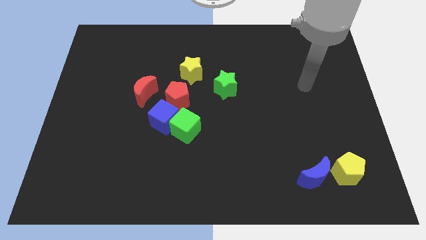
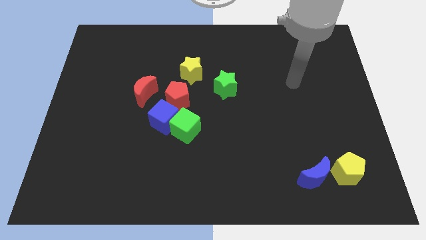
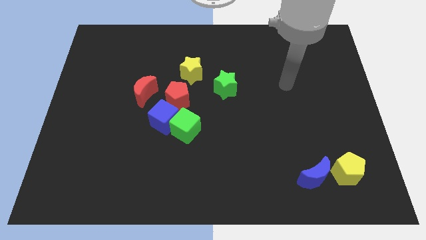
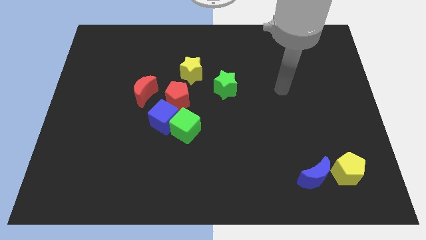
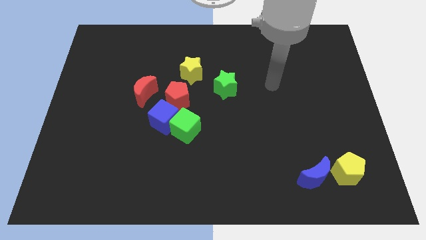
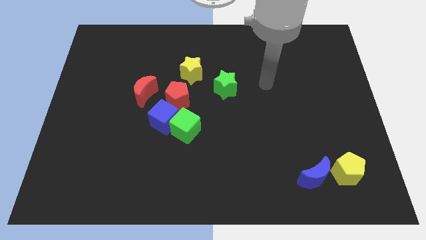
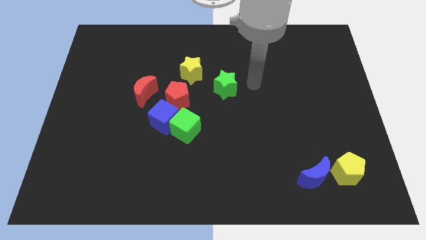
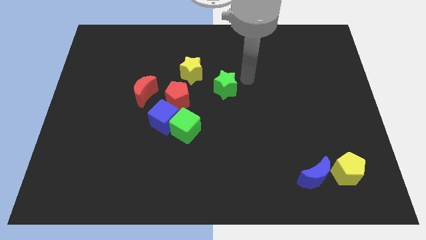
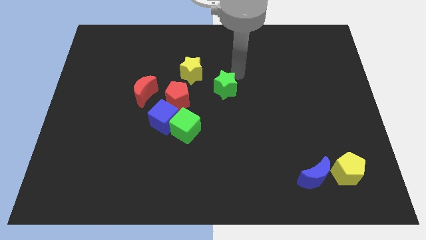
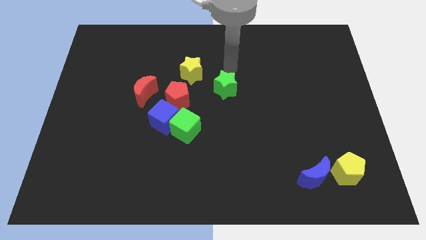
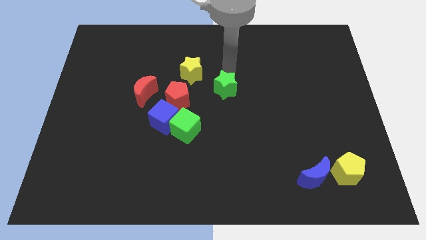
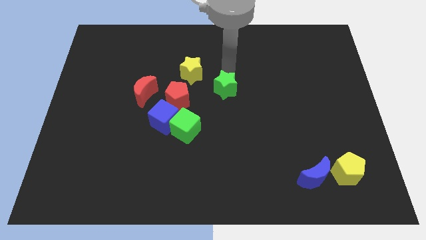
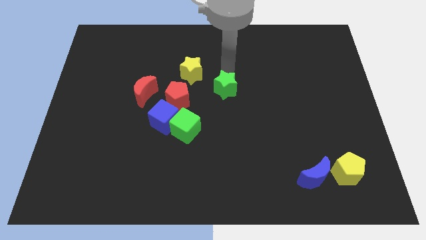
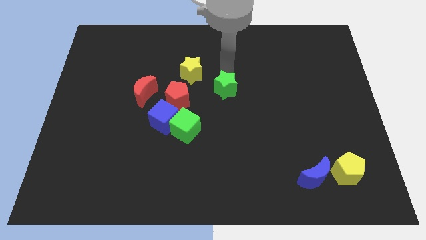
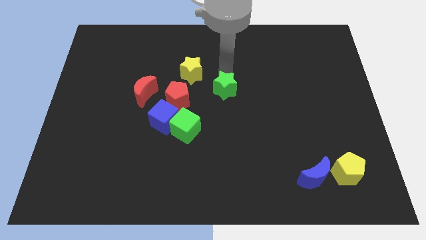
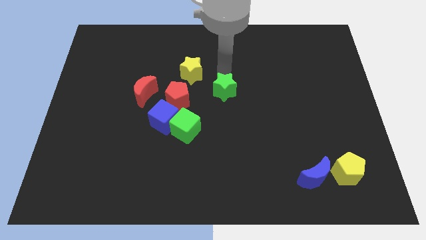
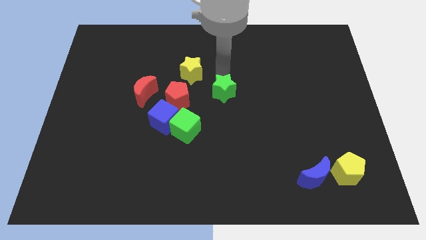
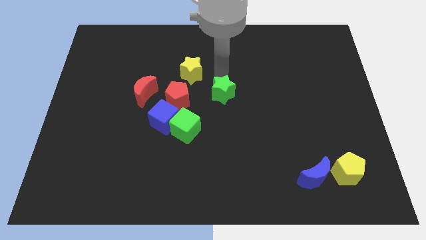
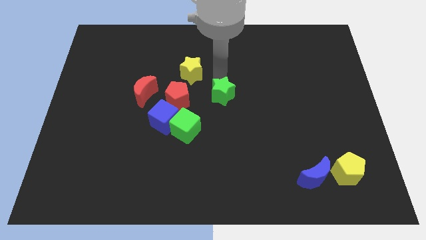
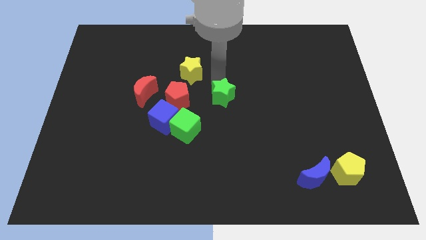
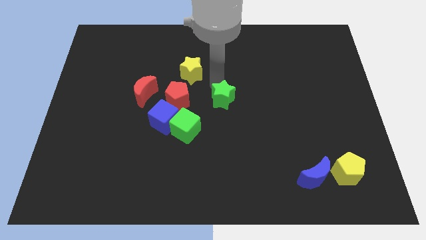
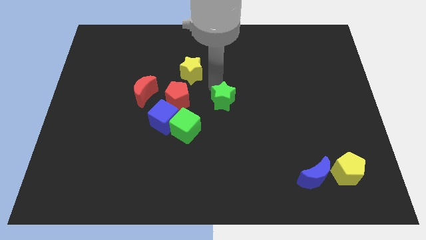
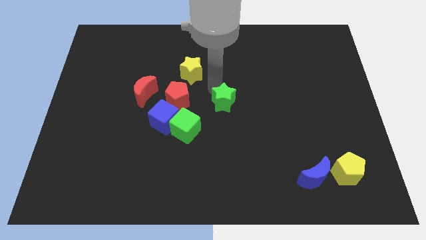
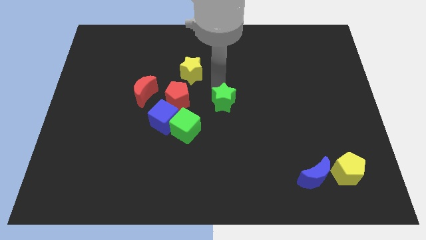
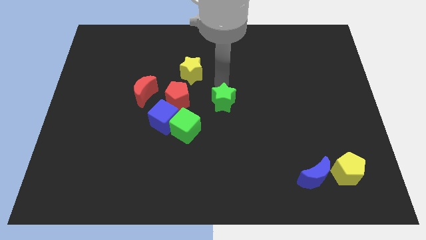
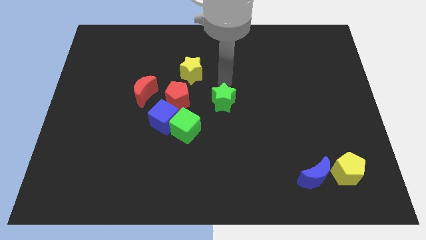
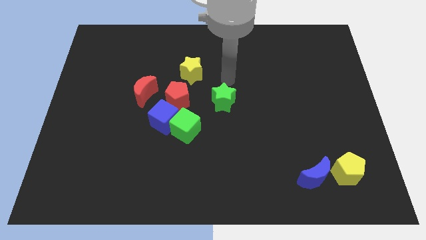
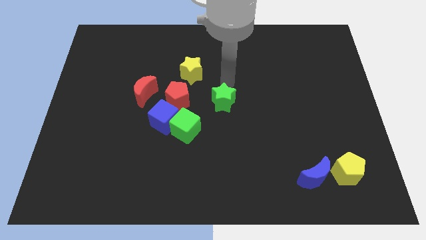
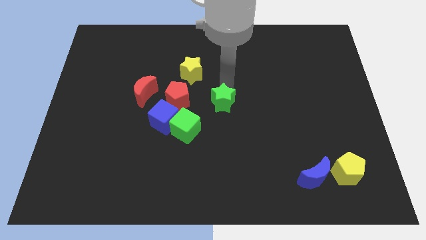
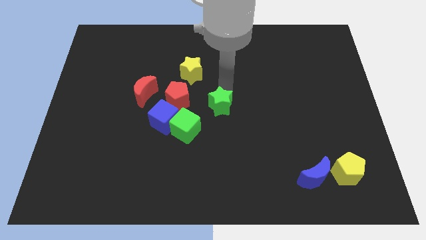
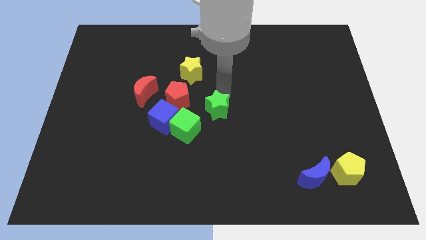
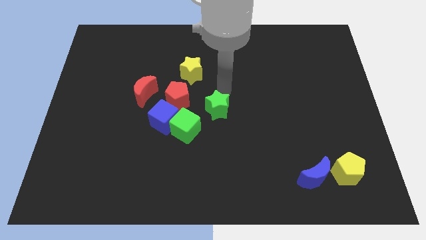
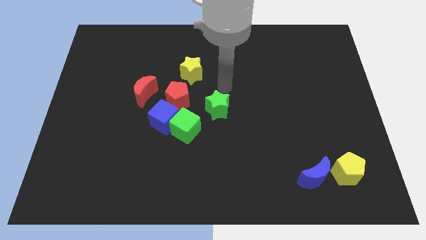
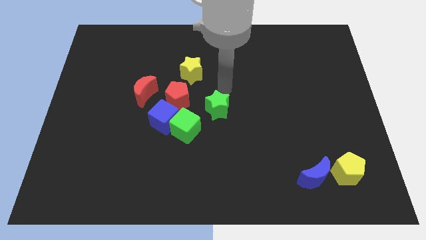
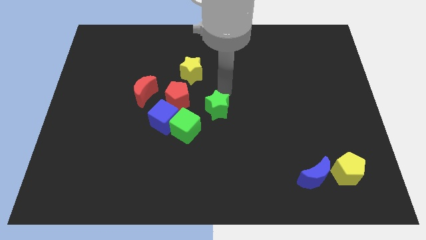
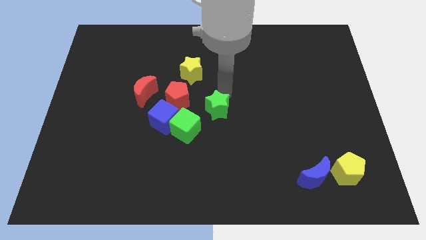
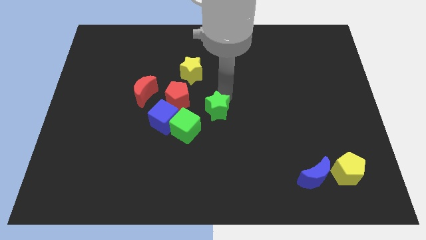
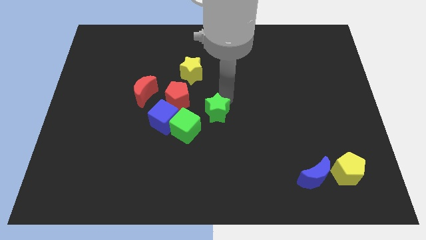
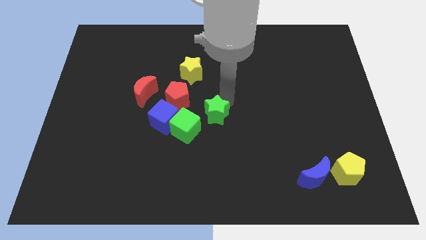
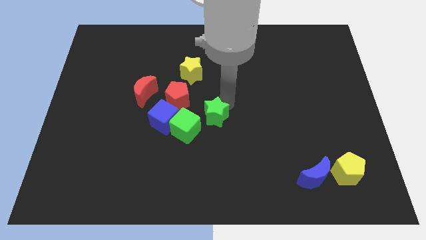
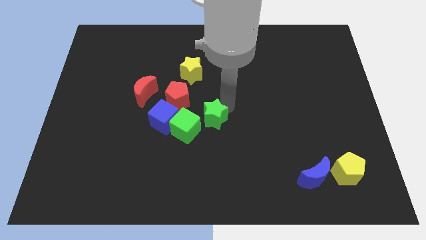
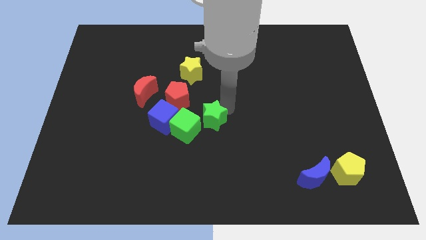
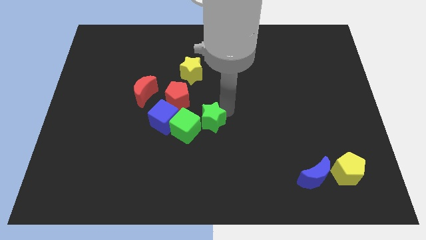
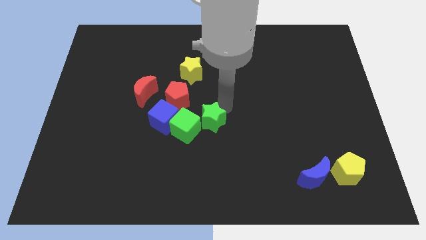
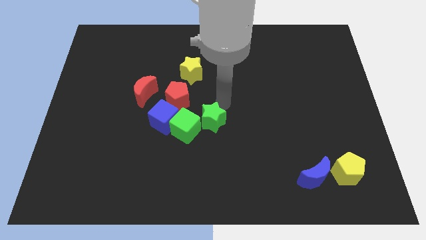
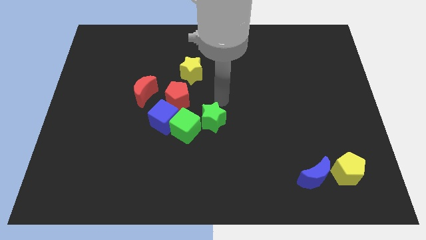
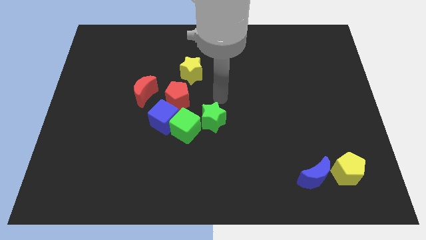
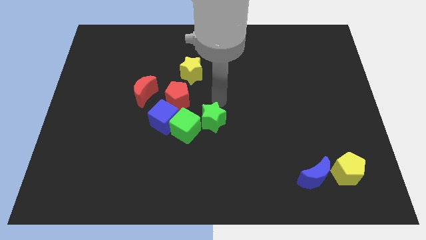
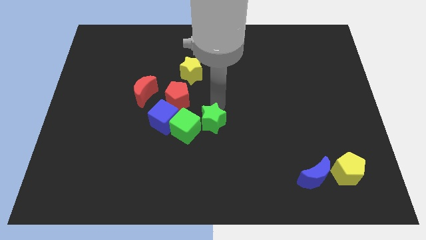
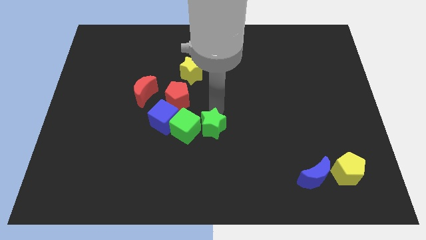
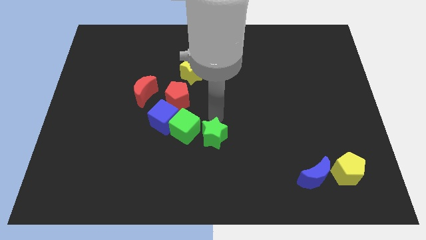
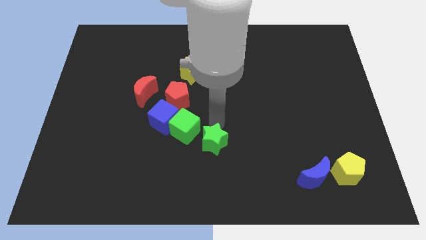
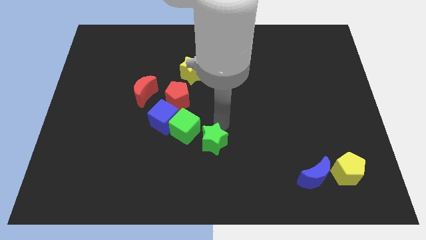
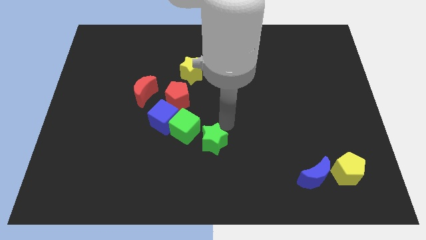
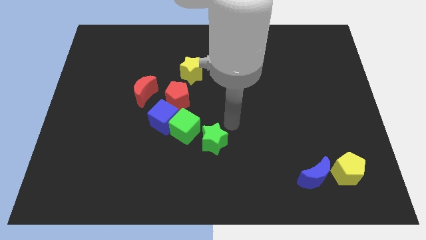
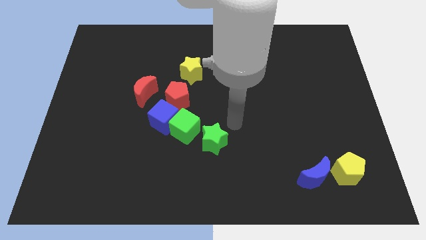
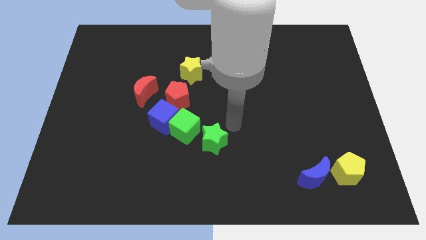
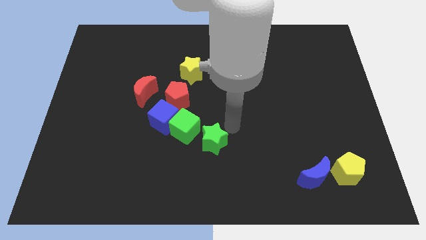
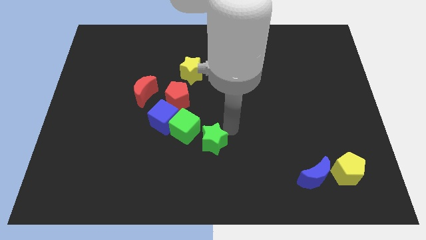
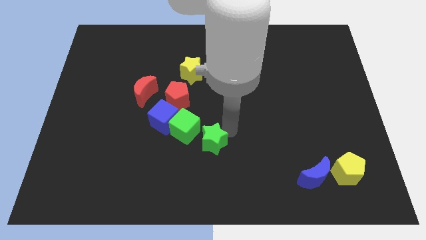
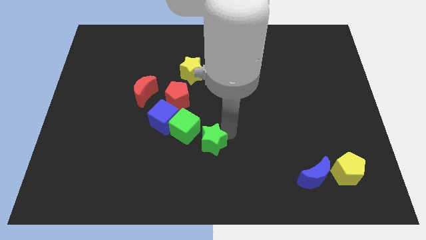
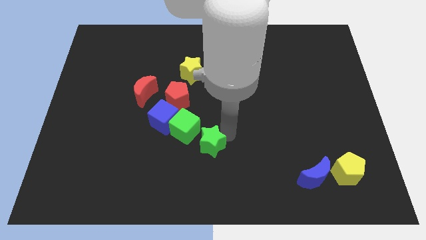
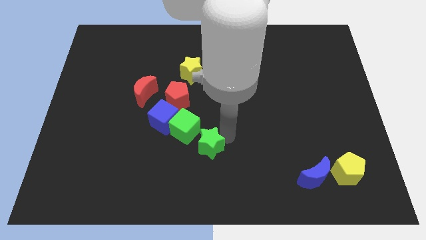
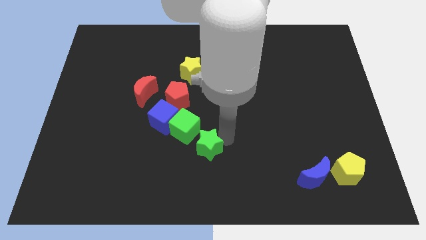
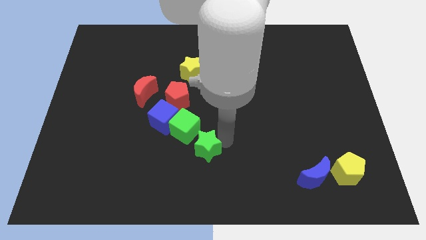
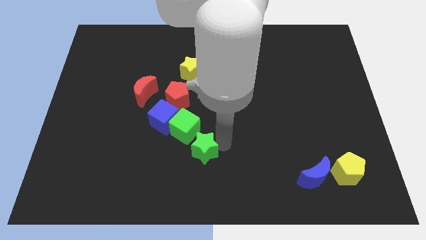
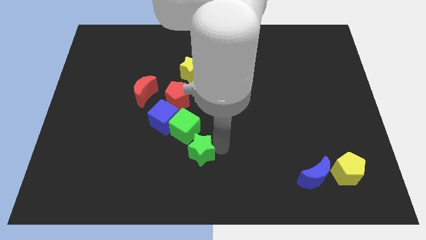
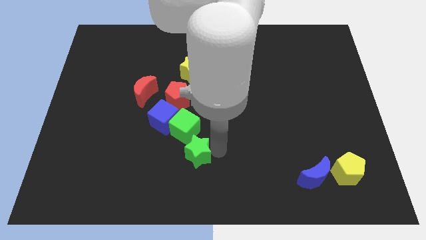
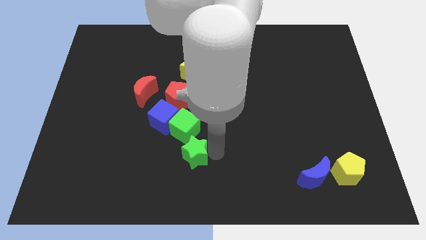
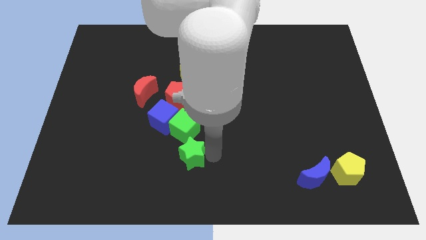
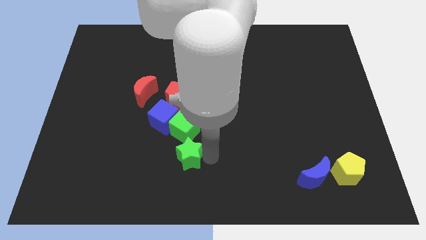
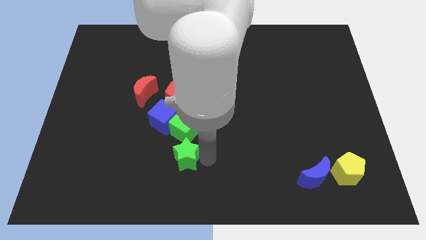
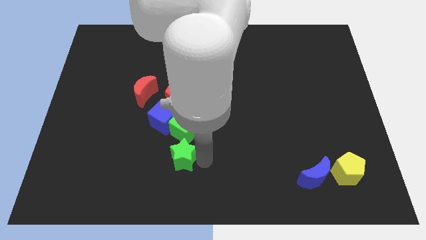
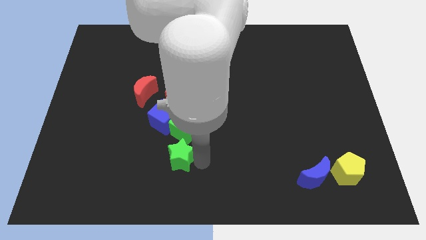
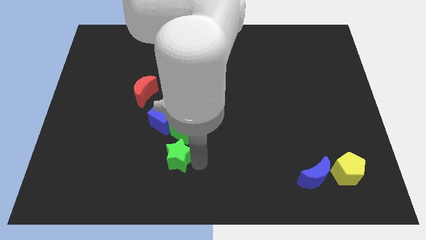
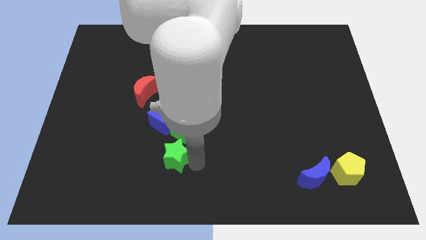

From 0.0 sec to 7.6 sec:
push the green star downwards and then left

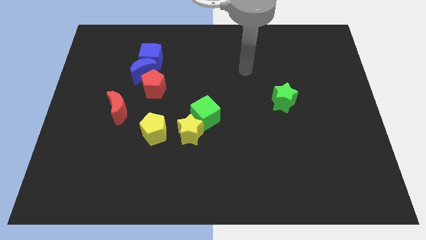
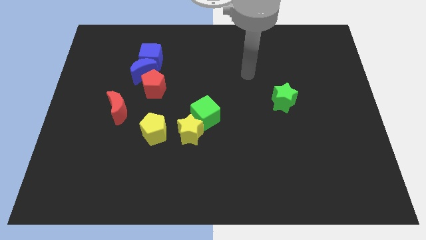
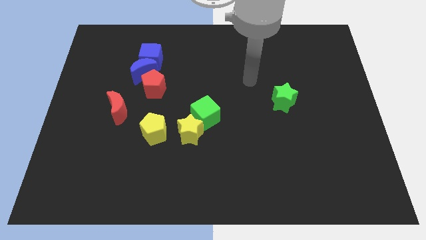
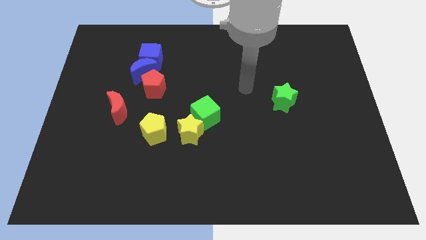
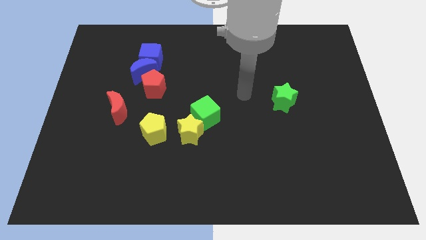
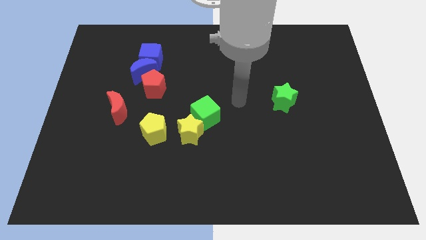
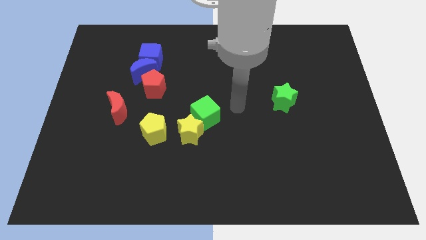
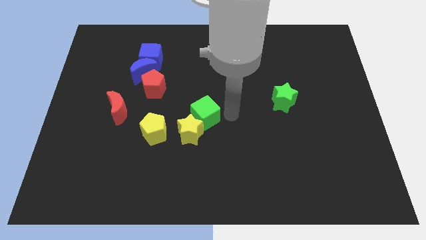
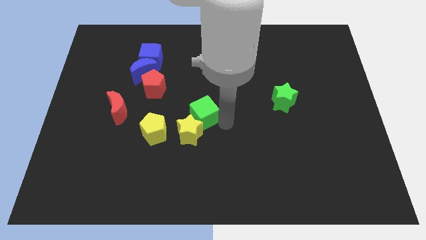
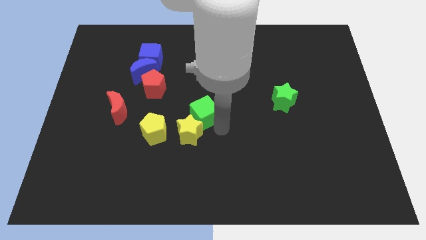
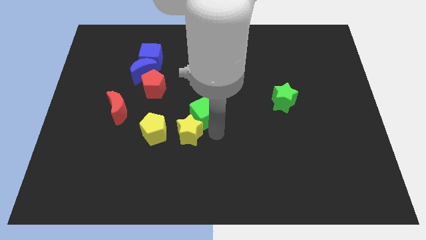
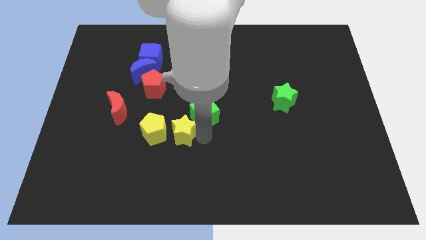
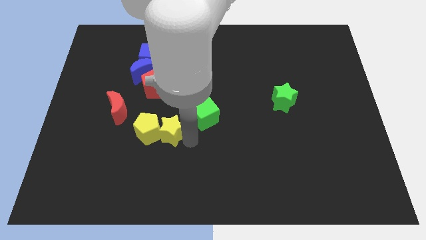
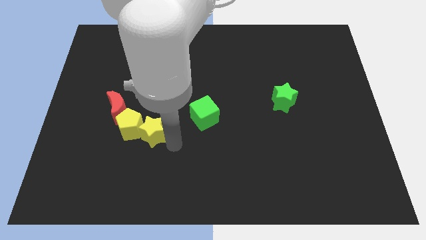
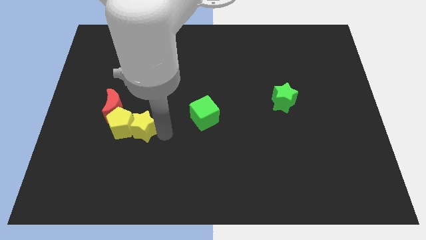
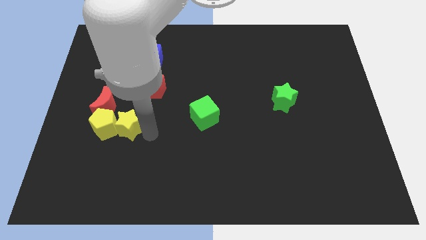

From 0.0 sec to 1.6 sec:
push the yellow pentagon up and to the left a little bit
